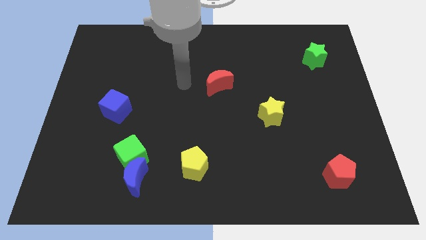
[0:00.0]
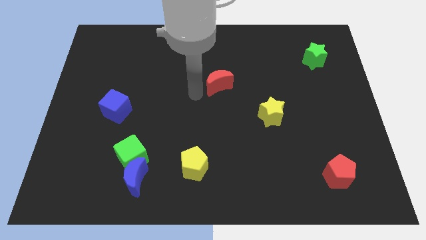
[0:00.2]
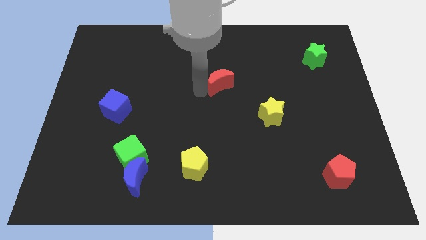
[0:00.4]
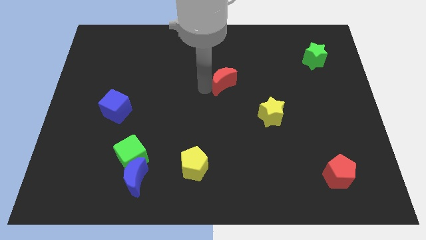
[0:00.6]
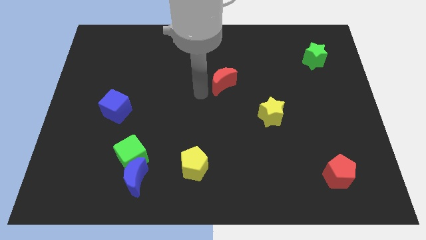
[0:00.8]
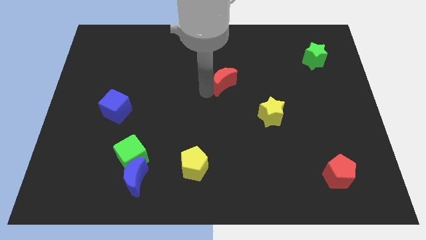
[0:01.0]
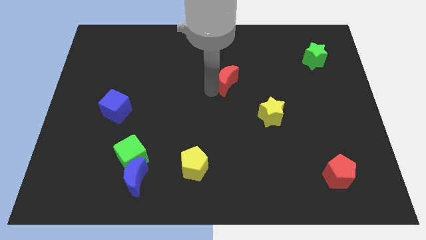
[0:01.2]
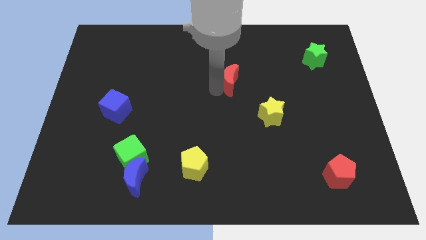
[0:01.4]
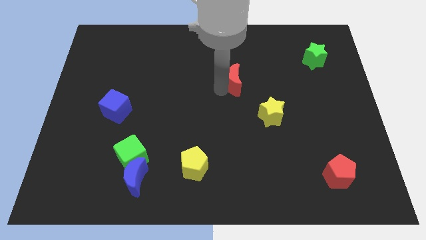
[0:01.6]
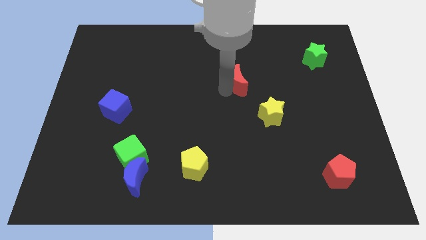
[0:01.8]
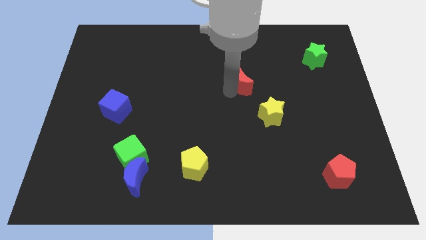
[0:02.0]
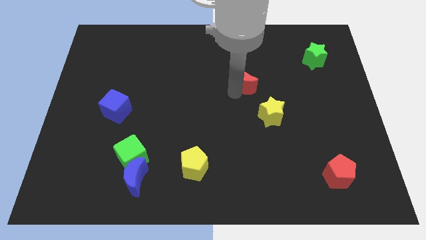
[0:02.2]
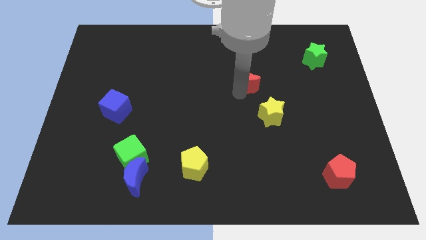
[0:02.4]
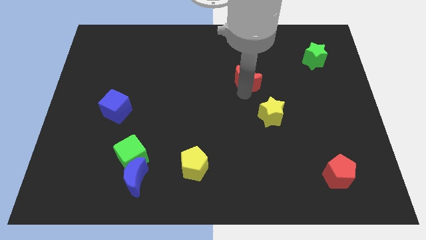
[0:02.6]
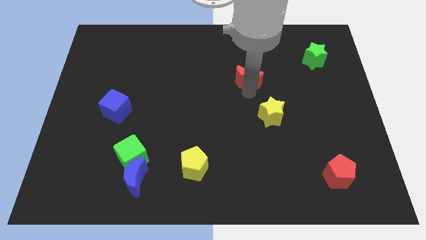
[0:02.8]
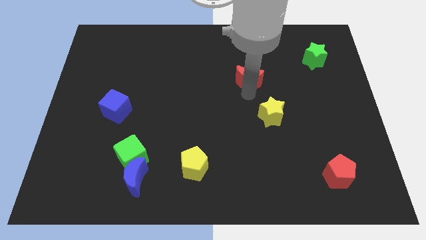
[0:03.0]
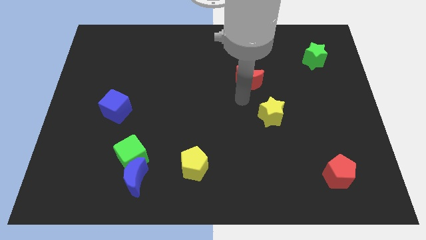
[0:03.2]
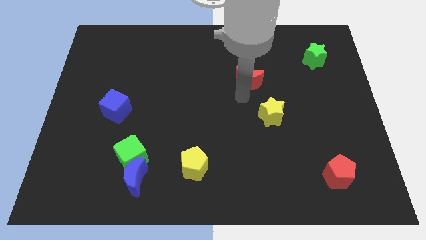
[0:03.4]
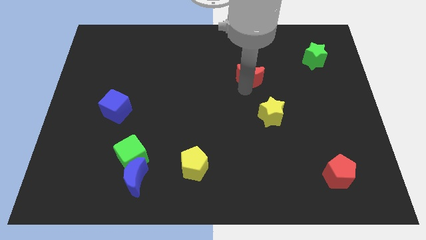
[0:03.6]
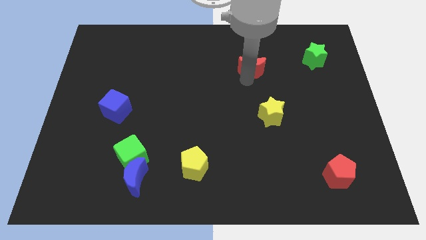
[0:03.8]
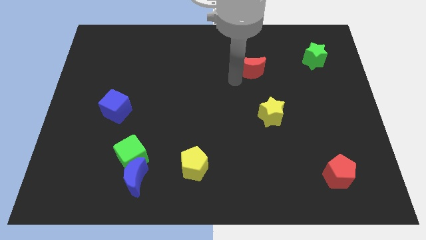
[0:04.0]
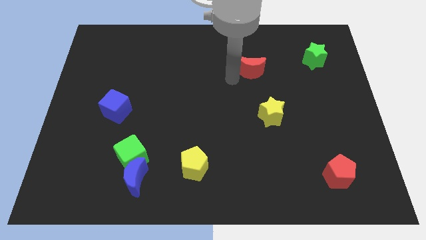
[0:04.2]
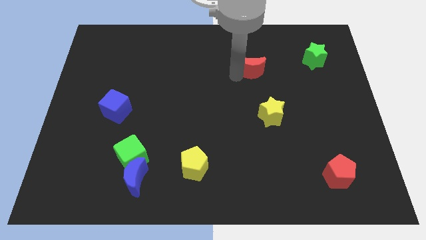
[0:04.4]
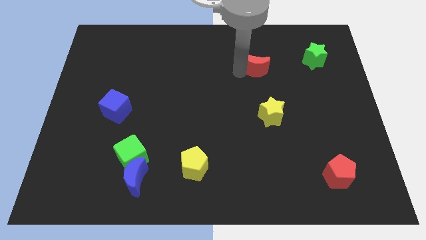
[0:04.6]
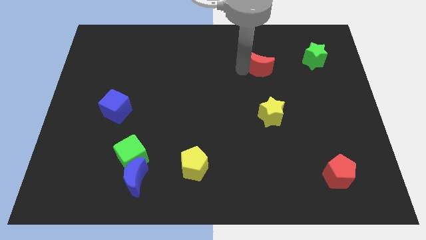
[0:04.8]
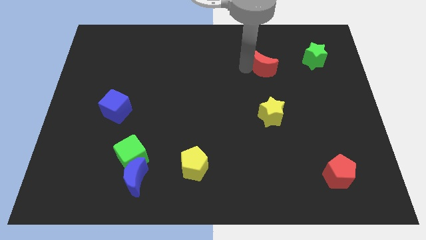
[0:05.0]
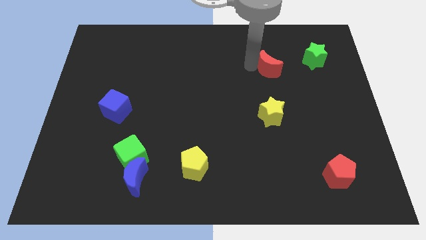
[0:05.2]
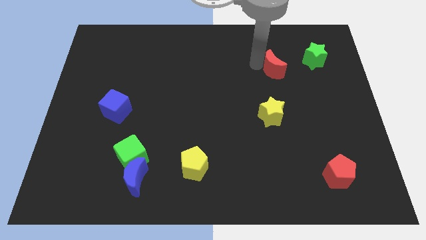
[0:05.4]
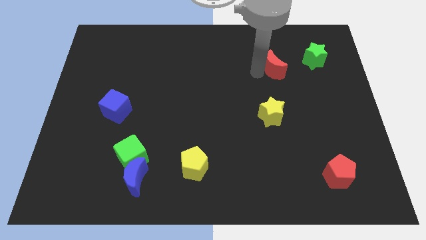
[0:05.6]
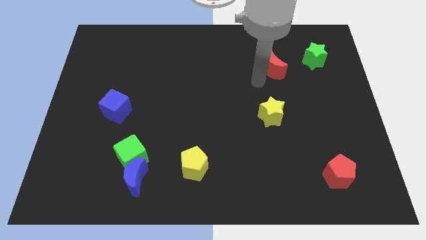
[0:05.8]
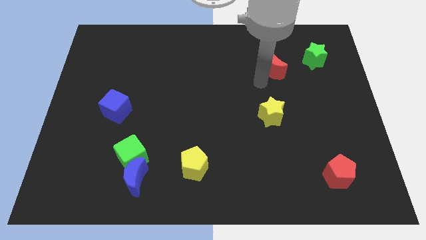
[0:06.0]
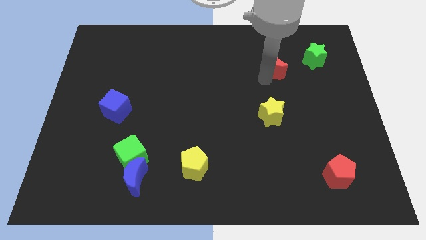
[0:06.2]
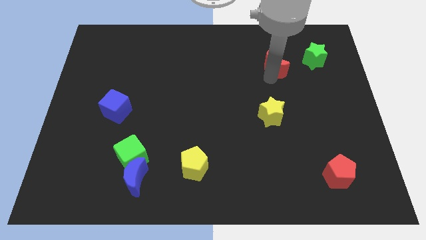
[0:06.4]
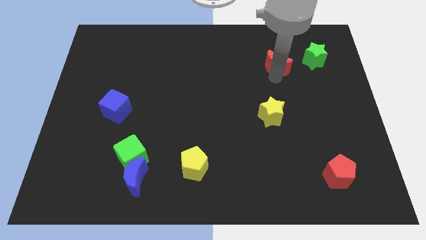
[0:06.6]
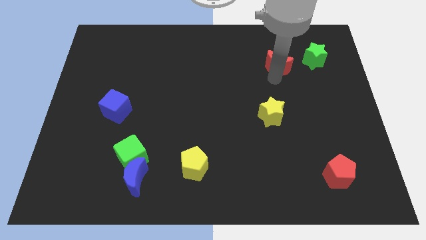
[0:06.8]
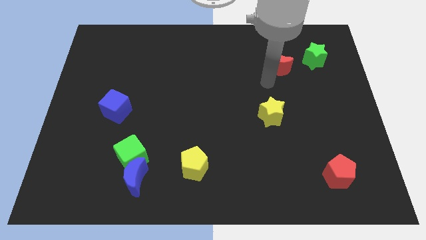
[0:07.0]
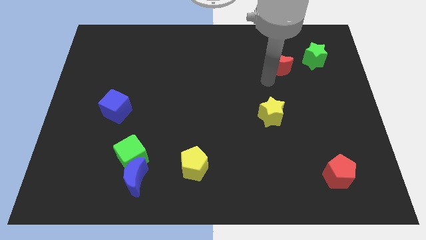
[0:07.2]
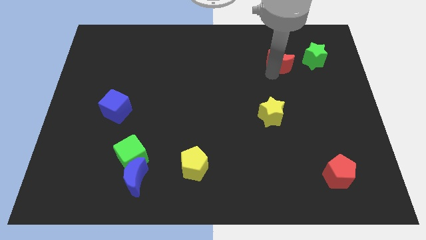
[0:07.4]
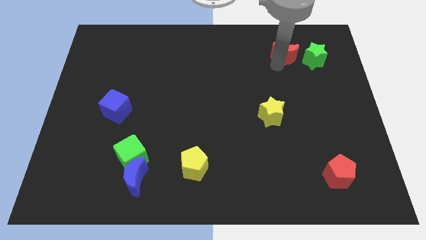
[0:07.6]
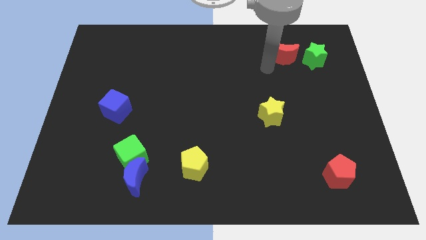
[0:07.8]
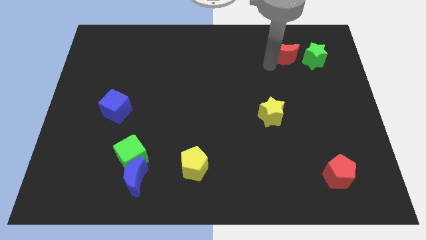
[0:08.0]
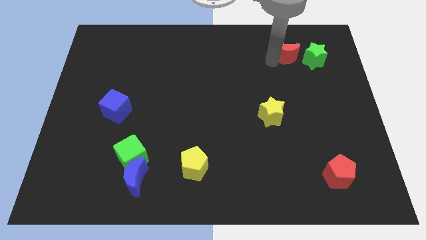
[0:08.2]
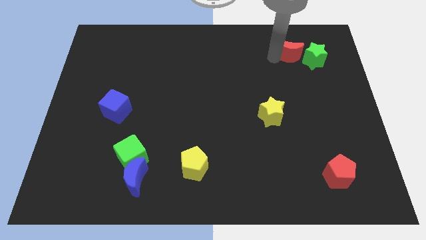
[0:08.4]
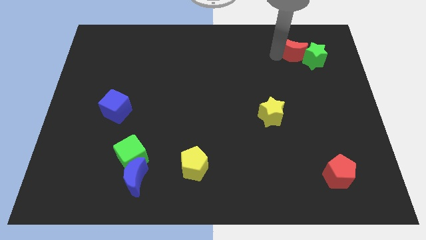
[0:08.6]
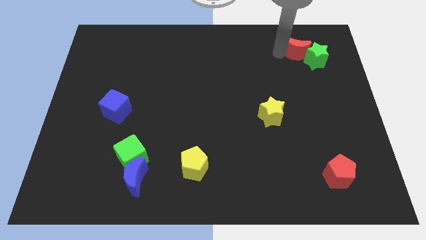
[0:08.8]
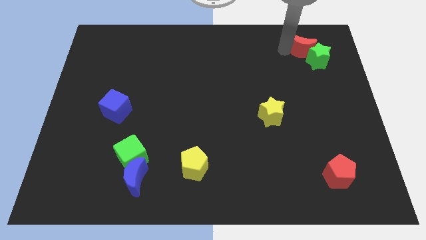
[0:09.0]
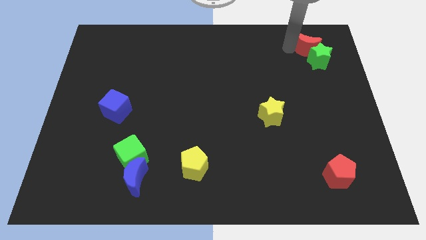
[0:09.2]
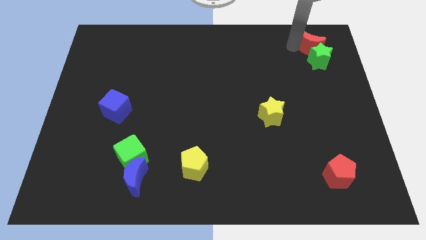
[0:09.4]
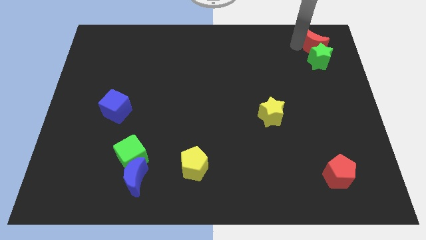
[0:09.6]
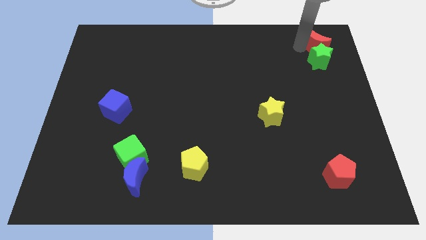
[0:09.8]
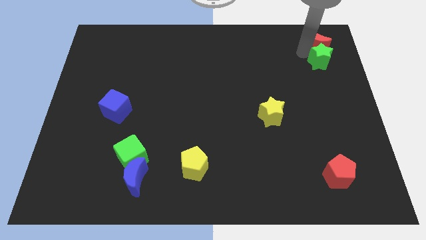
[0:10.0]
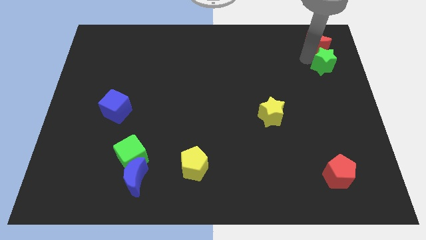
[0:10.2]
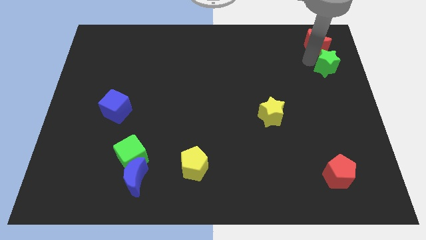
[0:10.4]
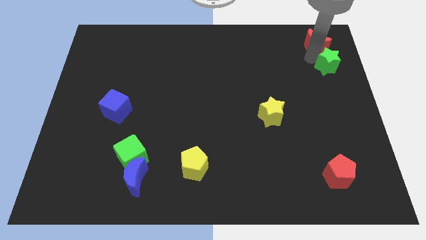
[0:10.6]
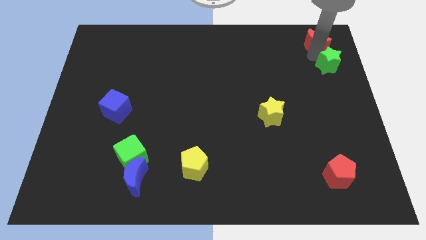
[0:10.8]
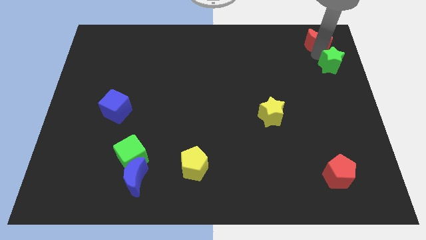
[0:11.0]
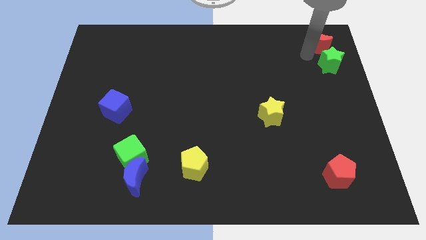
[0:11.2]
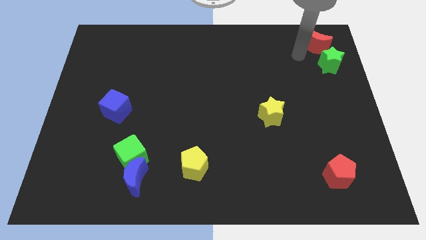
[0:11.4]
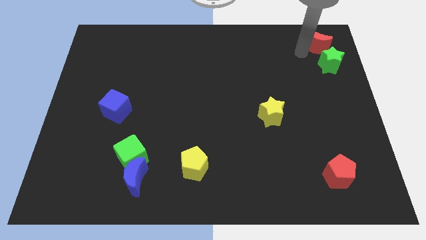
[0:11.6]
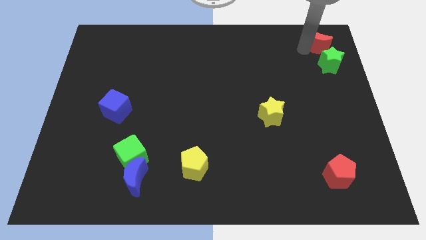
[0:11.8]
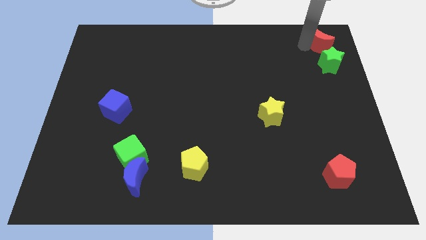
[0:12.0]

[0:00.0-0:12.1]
put the red moon to the upper right corner
